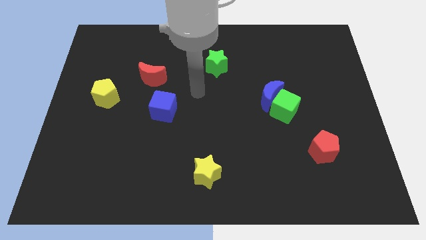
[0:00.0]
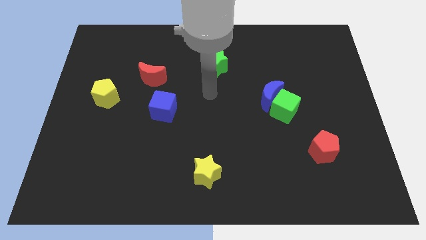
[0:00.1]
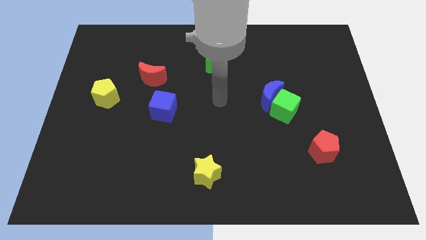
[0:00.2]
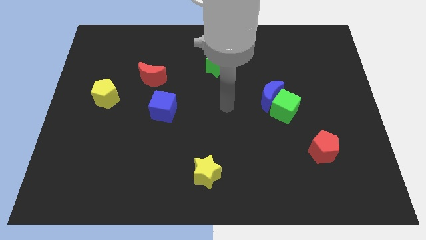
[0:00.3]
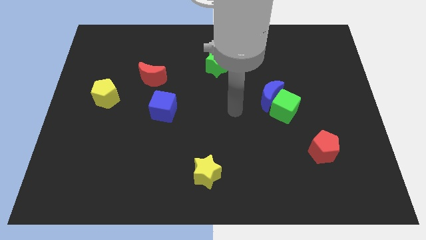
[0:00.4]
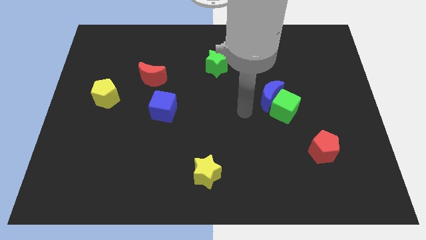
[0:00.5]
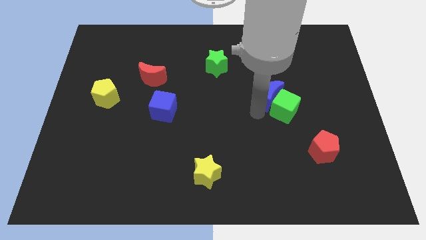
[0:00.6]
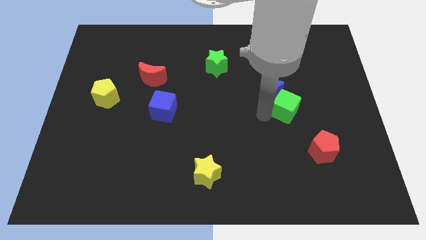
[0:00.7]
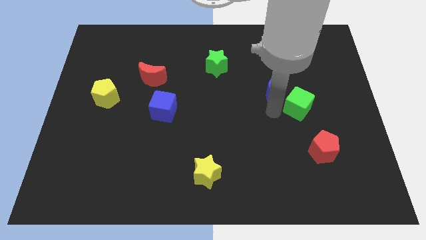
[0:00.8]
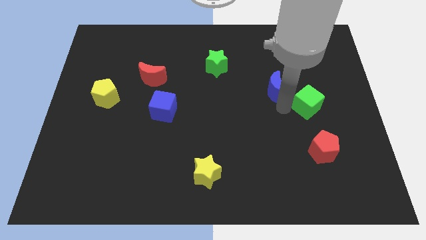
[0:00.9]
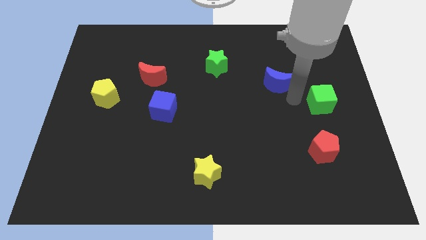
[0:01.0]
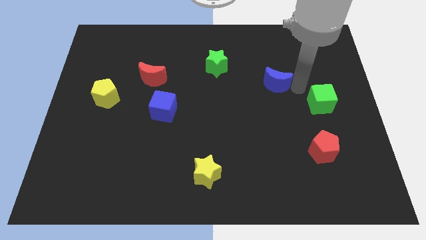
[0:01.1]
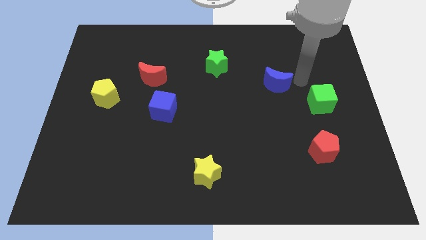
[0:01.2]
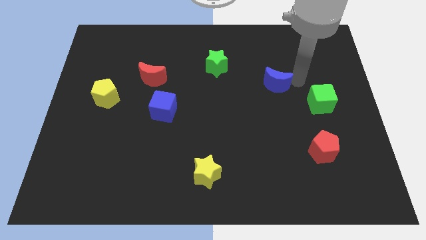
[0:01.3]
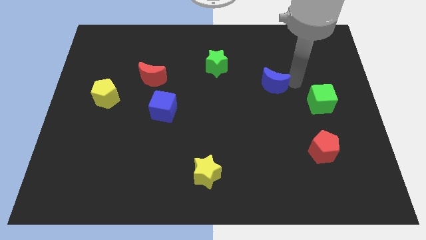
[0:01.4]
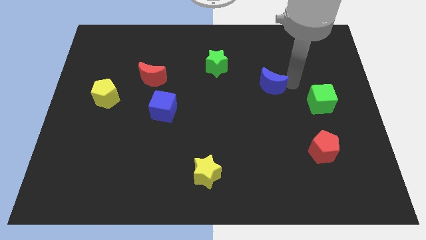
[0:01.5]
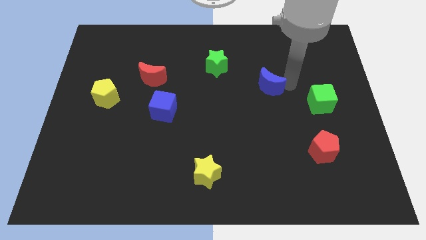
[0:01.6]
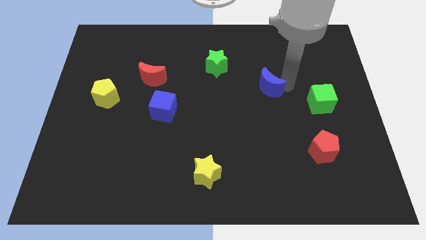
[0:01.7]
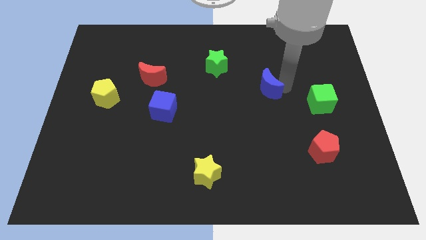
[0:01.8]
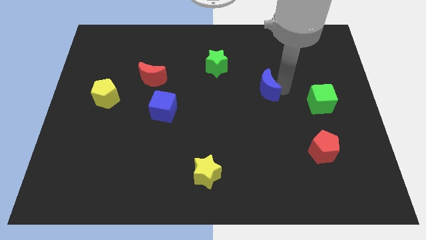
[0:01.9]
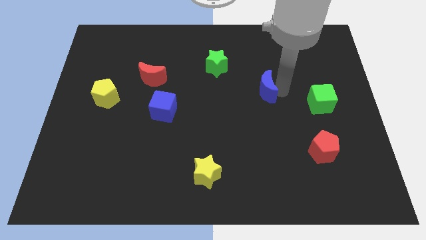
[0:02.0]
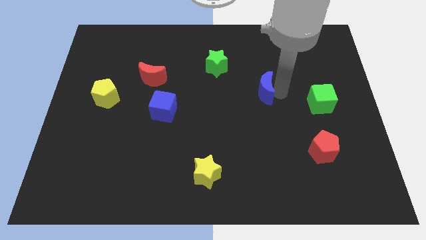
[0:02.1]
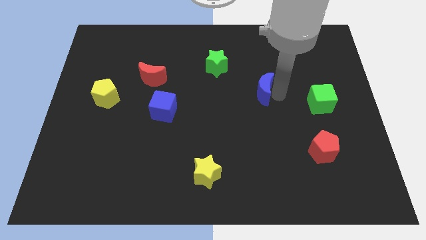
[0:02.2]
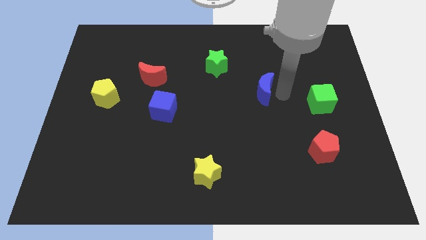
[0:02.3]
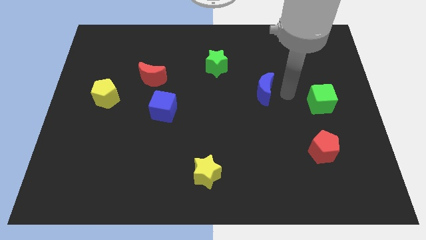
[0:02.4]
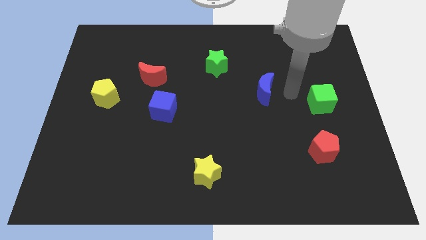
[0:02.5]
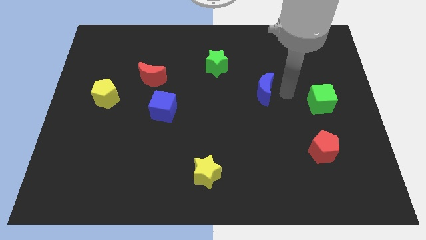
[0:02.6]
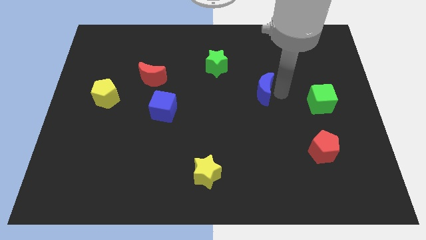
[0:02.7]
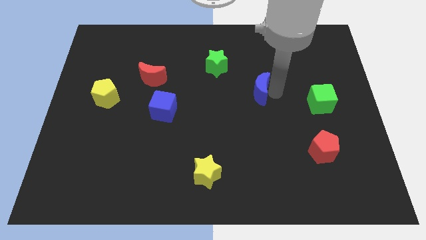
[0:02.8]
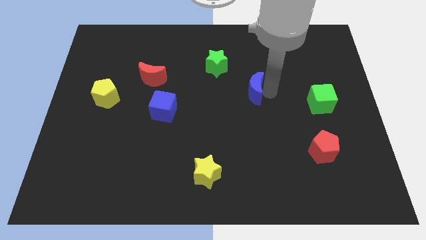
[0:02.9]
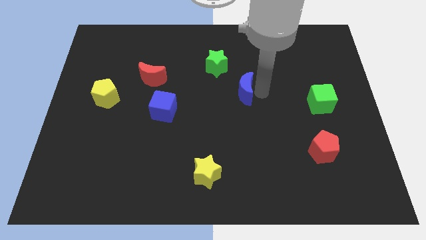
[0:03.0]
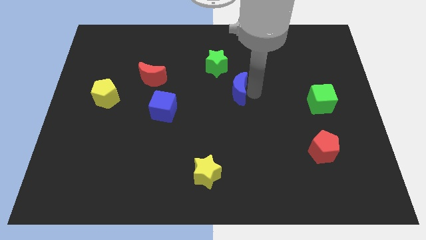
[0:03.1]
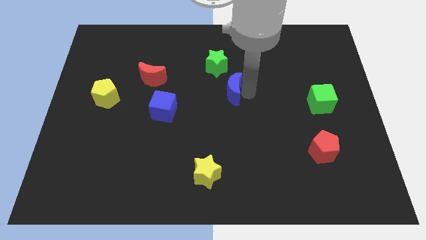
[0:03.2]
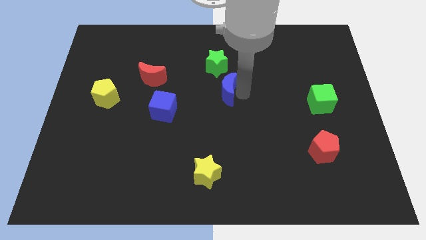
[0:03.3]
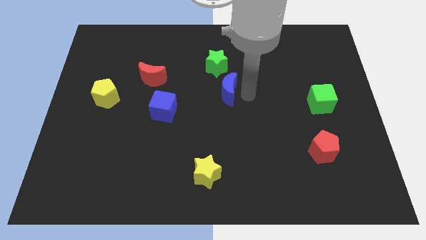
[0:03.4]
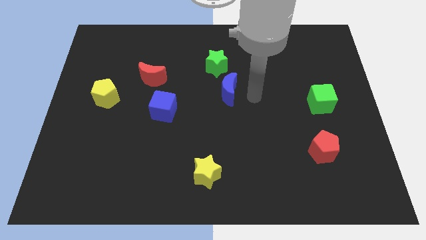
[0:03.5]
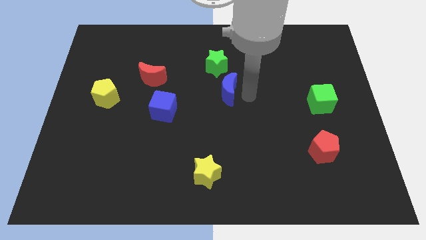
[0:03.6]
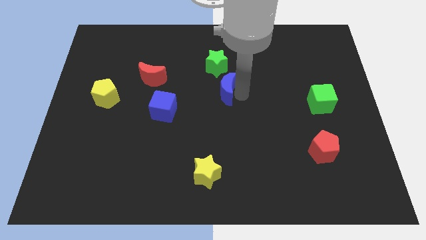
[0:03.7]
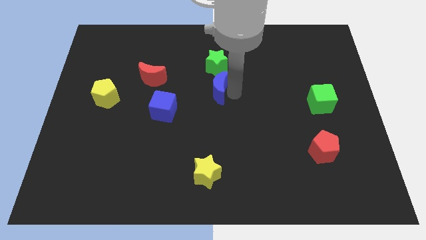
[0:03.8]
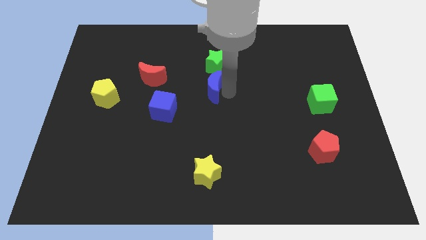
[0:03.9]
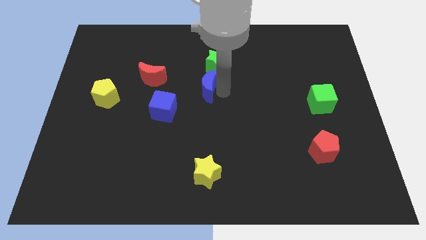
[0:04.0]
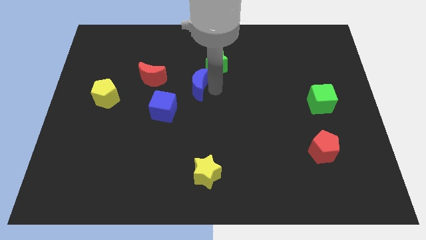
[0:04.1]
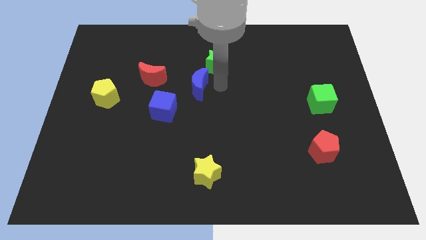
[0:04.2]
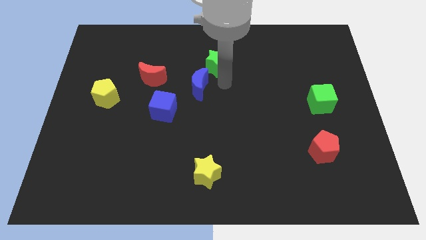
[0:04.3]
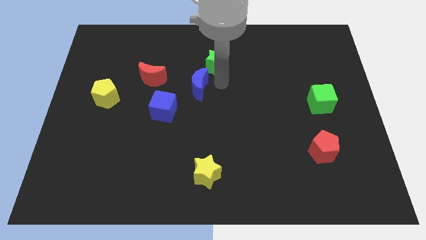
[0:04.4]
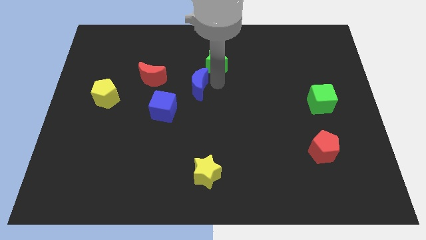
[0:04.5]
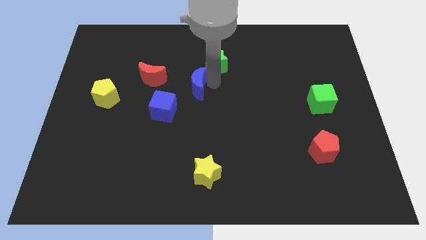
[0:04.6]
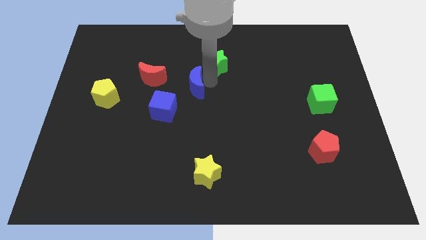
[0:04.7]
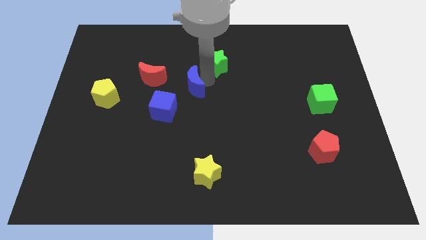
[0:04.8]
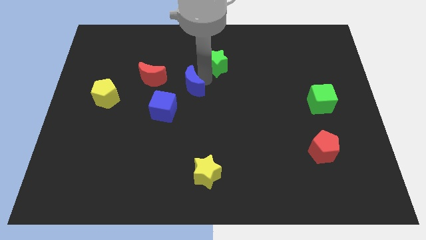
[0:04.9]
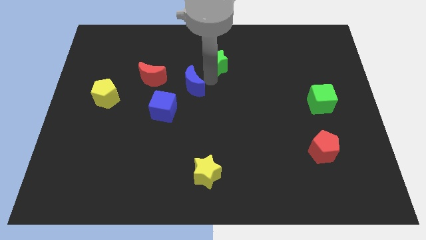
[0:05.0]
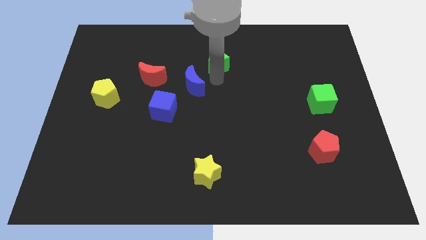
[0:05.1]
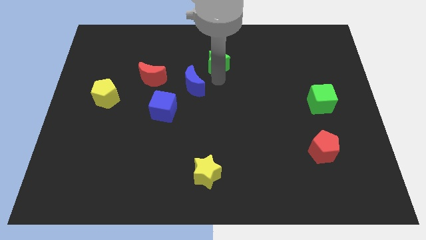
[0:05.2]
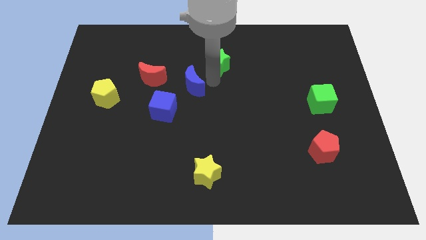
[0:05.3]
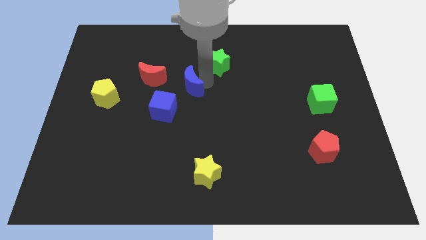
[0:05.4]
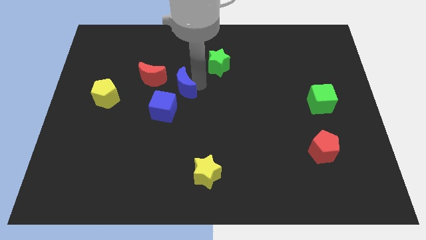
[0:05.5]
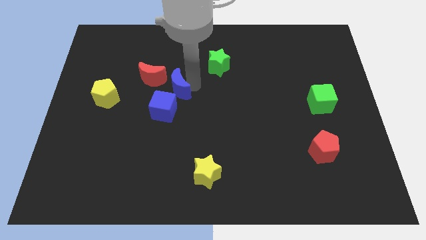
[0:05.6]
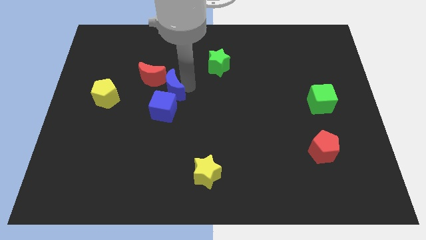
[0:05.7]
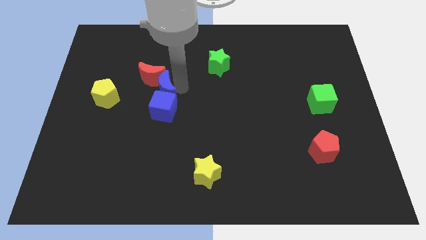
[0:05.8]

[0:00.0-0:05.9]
put the blue moon to the right of the yellow pentagon

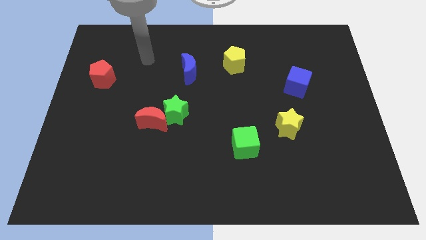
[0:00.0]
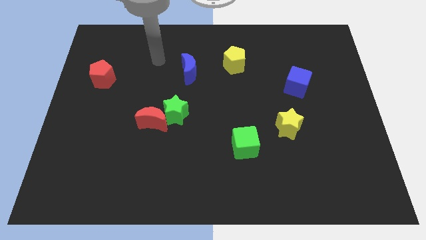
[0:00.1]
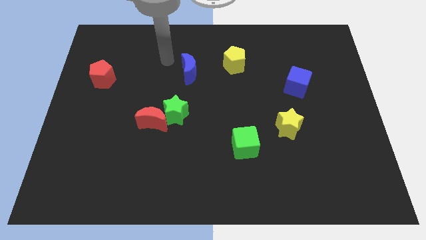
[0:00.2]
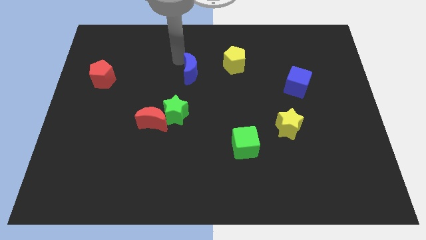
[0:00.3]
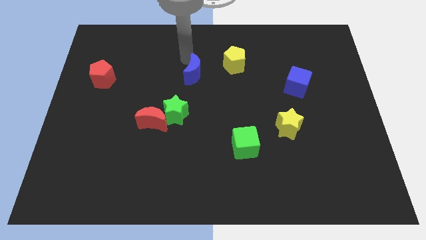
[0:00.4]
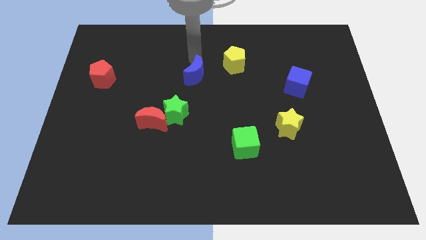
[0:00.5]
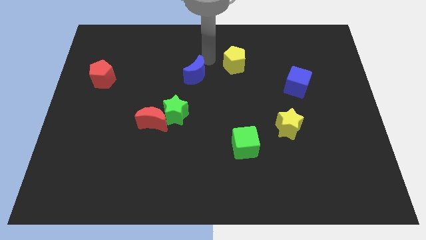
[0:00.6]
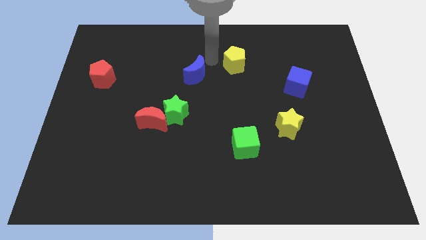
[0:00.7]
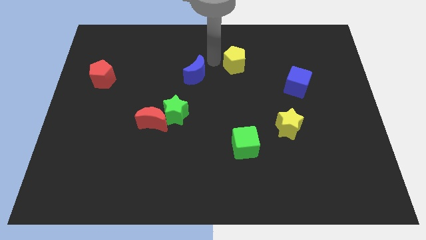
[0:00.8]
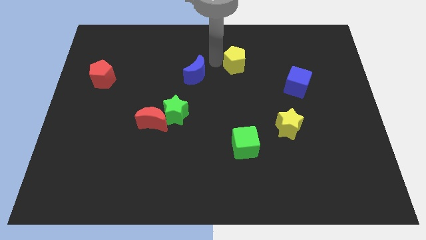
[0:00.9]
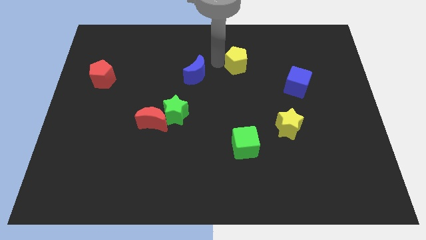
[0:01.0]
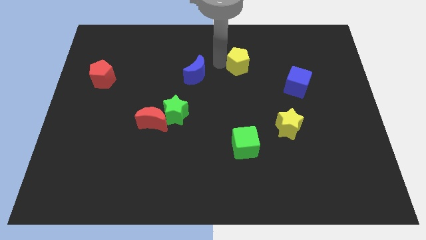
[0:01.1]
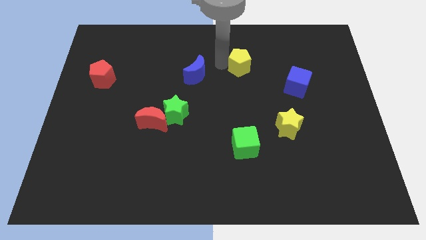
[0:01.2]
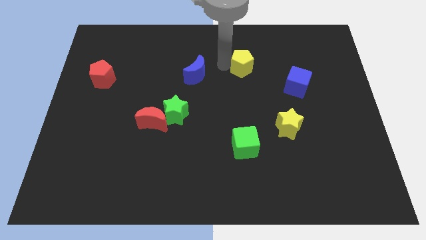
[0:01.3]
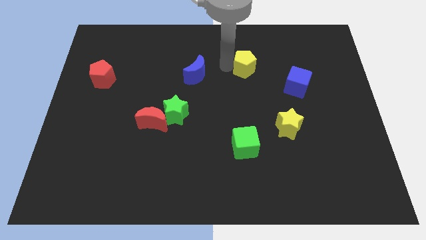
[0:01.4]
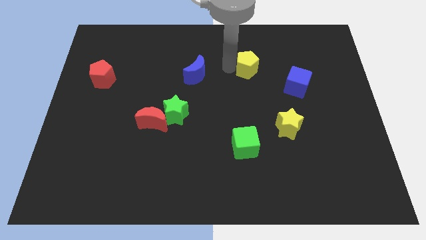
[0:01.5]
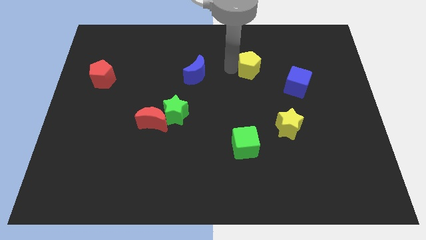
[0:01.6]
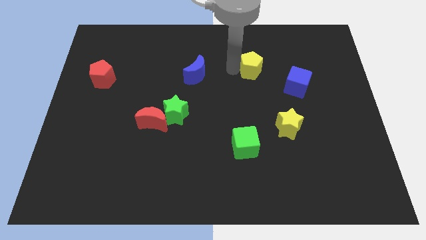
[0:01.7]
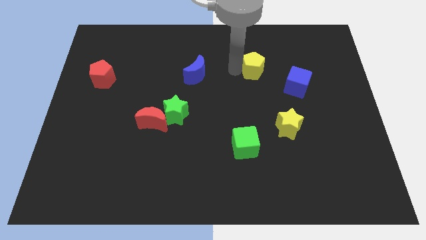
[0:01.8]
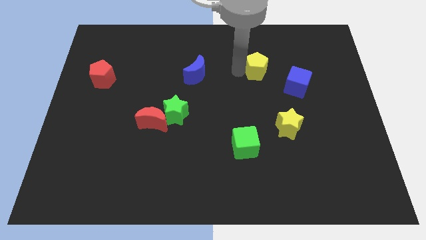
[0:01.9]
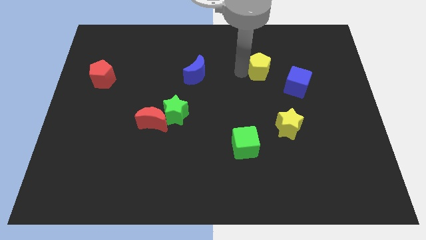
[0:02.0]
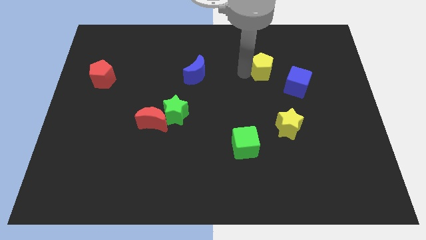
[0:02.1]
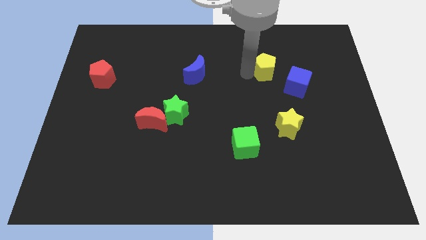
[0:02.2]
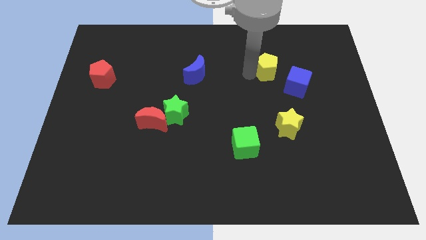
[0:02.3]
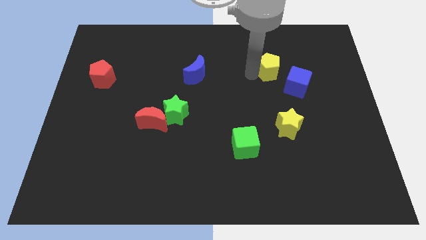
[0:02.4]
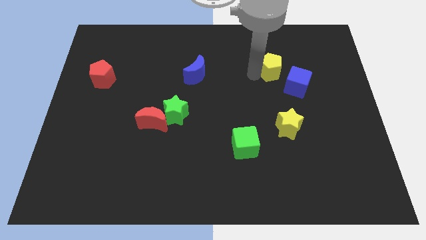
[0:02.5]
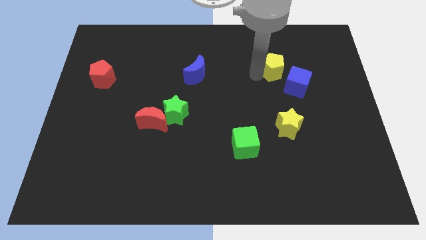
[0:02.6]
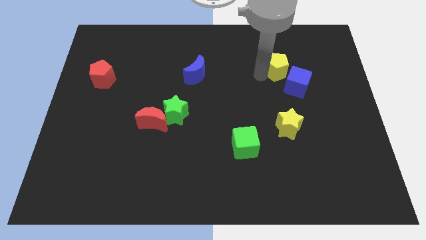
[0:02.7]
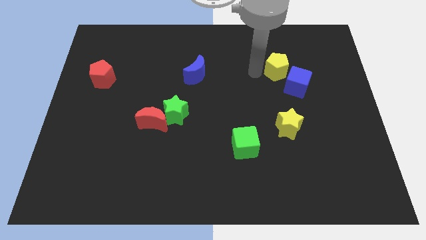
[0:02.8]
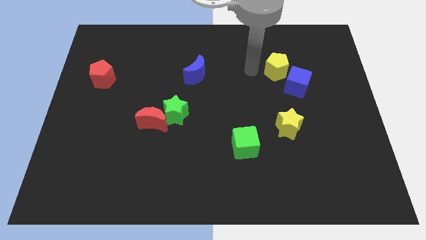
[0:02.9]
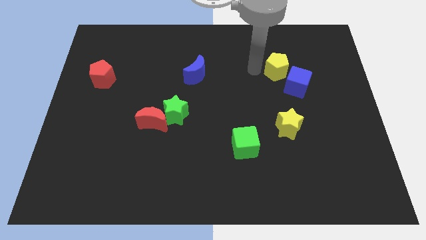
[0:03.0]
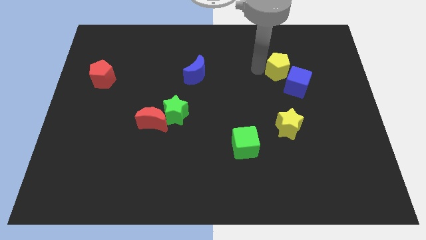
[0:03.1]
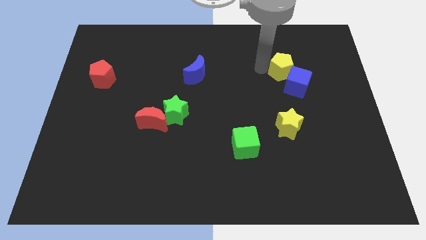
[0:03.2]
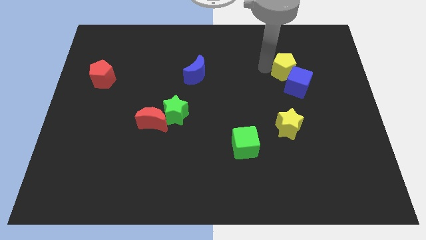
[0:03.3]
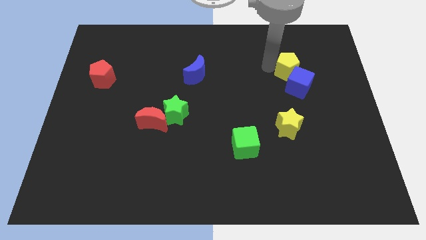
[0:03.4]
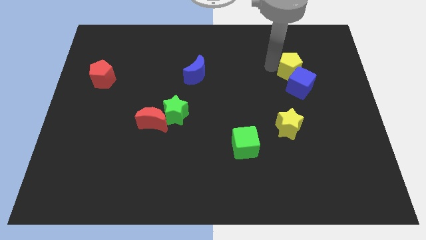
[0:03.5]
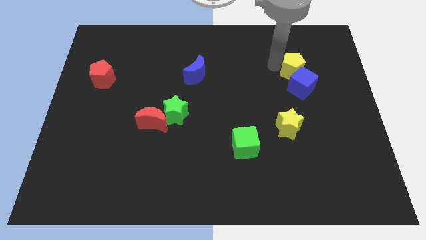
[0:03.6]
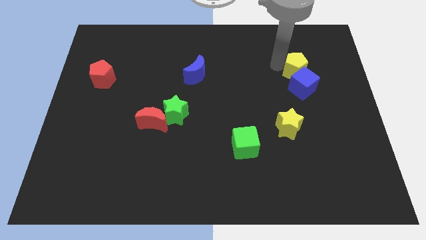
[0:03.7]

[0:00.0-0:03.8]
push the yellow pentagon to the top right side of the blue cube
